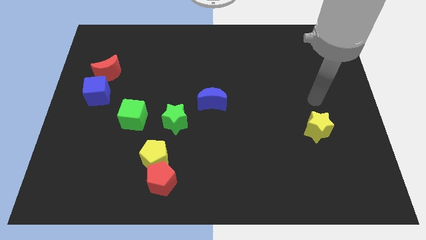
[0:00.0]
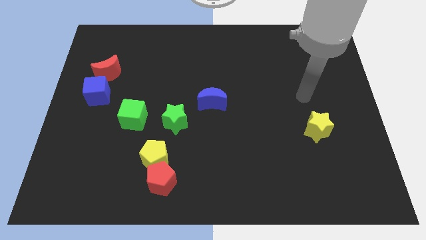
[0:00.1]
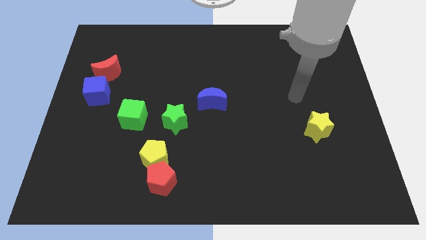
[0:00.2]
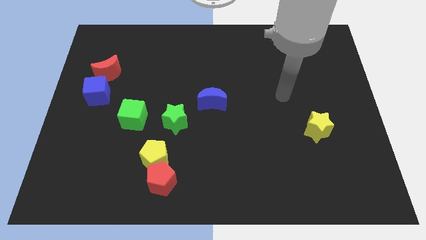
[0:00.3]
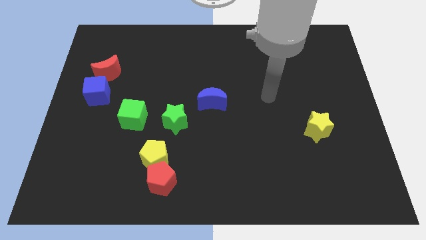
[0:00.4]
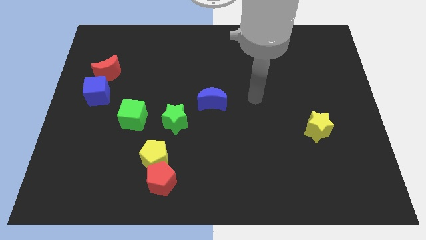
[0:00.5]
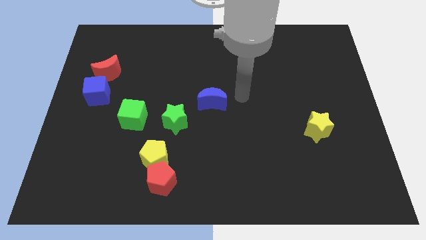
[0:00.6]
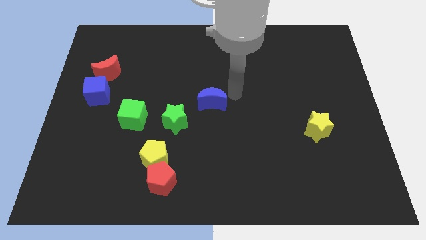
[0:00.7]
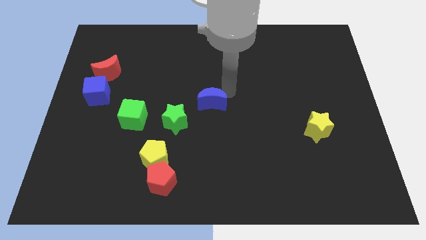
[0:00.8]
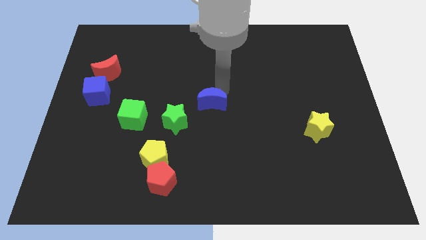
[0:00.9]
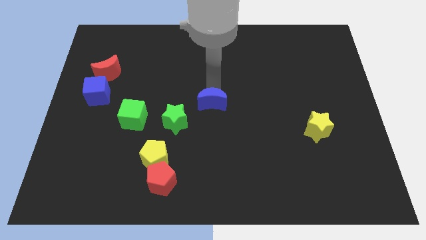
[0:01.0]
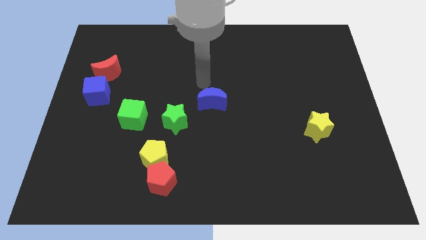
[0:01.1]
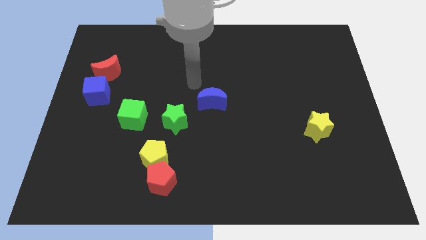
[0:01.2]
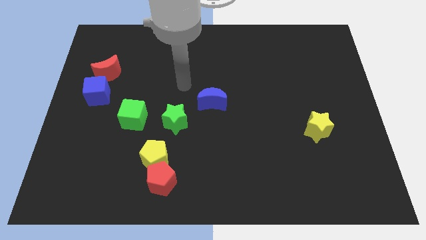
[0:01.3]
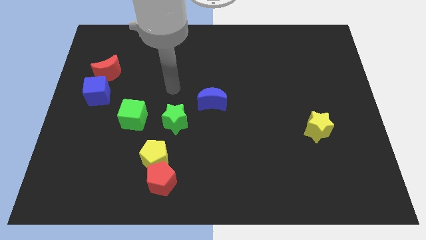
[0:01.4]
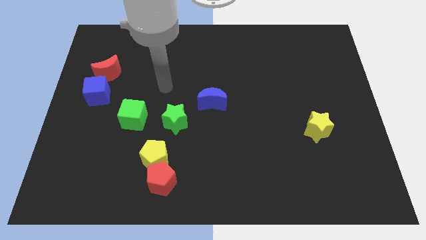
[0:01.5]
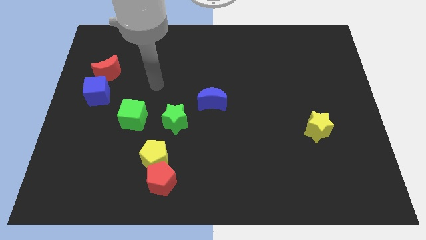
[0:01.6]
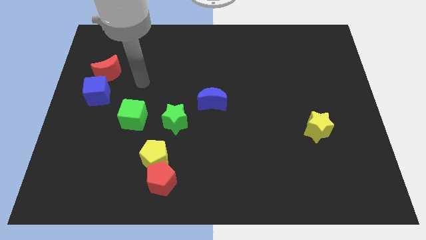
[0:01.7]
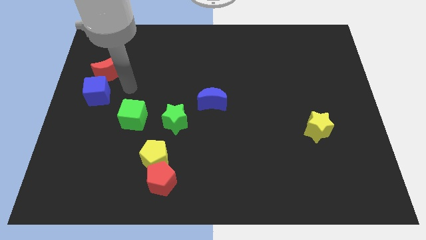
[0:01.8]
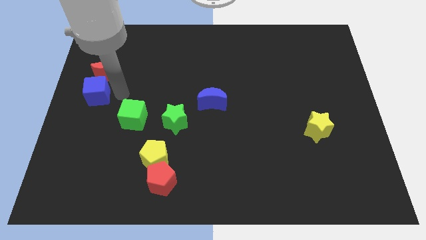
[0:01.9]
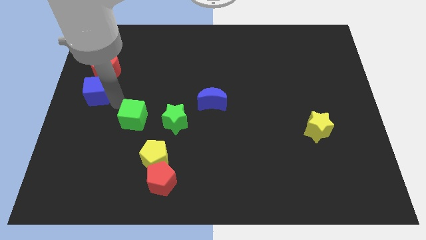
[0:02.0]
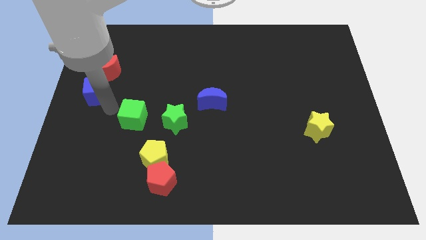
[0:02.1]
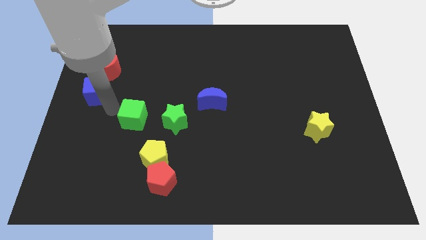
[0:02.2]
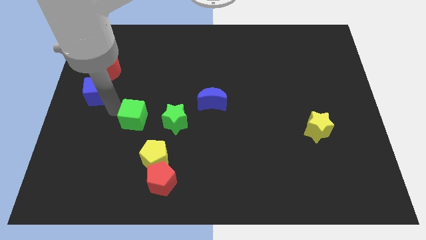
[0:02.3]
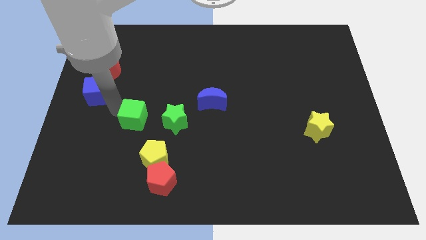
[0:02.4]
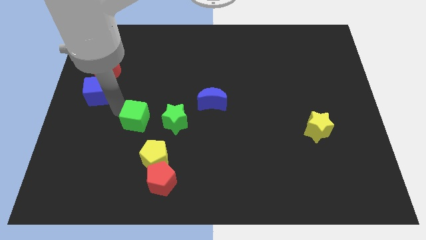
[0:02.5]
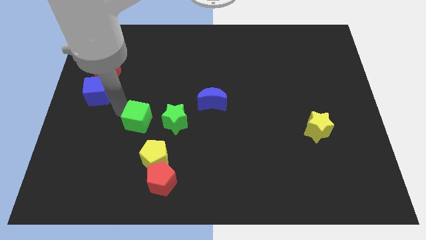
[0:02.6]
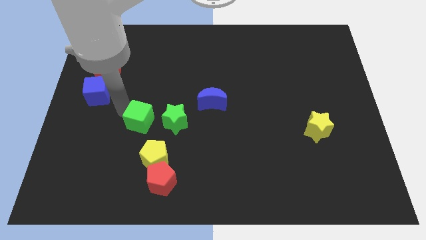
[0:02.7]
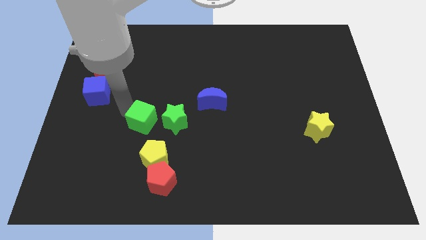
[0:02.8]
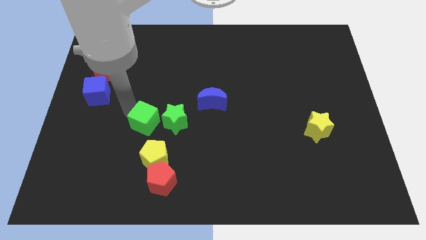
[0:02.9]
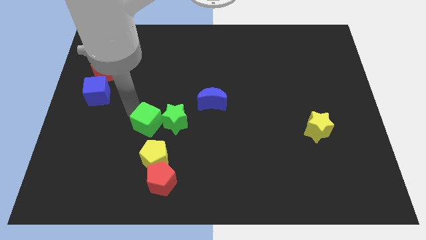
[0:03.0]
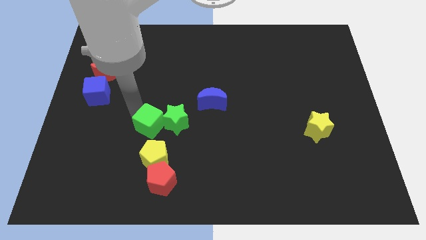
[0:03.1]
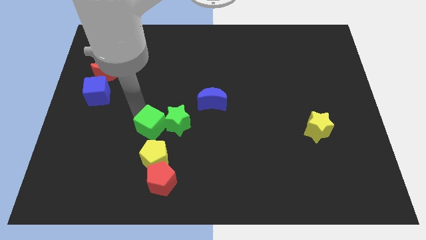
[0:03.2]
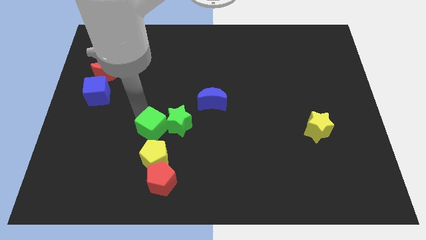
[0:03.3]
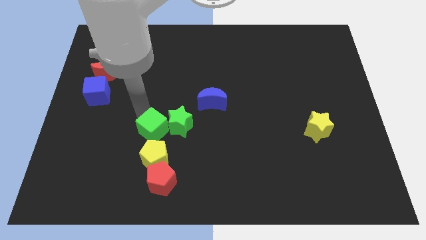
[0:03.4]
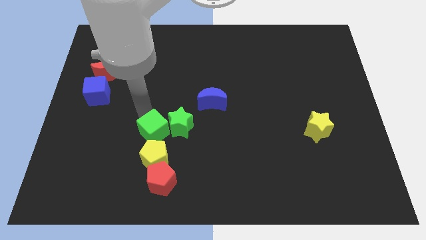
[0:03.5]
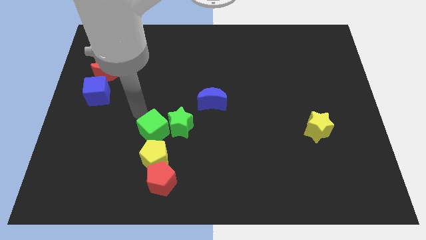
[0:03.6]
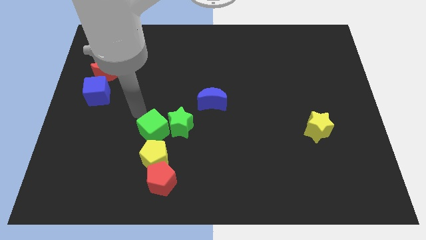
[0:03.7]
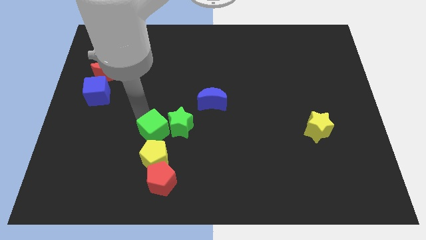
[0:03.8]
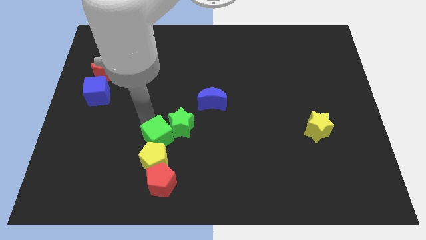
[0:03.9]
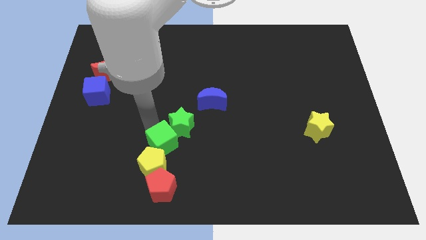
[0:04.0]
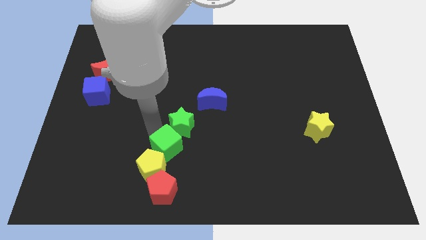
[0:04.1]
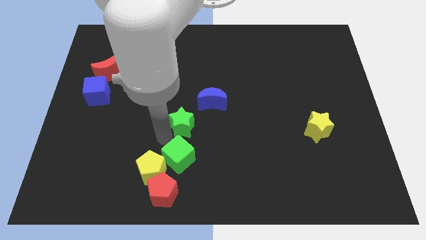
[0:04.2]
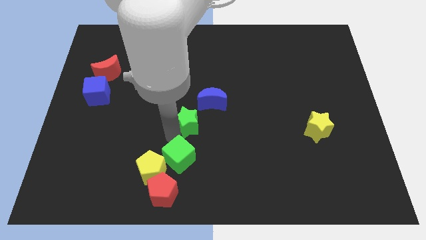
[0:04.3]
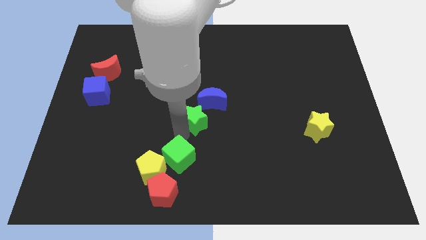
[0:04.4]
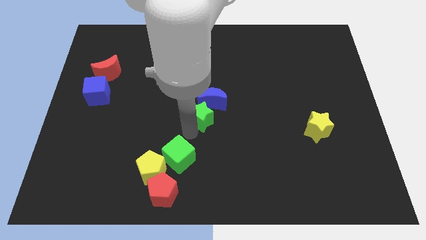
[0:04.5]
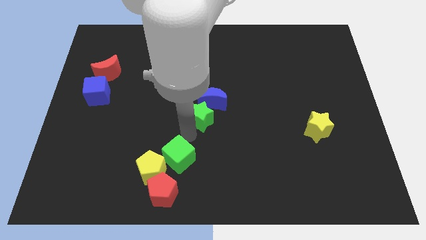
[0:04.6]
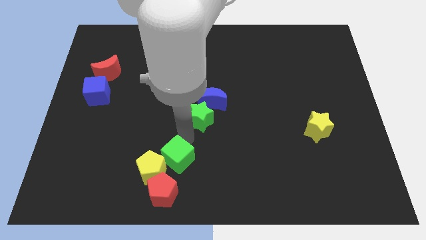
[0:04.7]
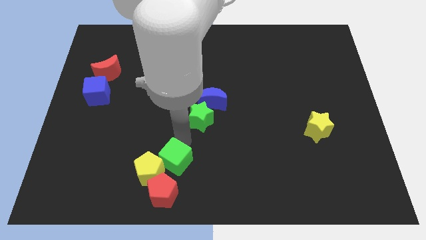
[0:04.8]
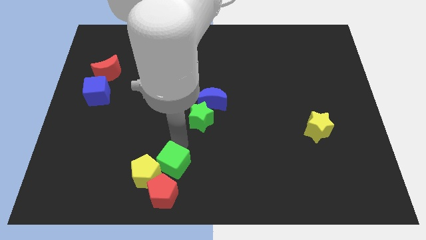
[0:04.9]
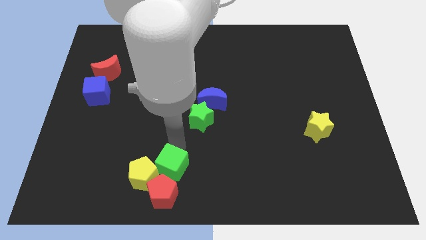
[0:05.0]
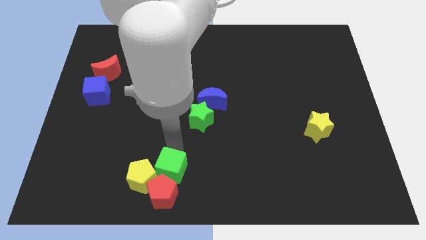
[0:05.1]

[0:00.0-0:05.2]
move the green cube close to the red pentagon

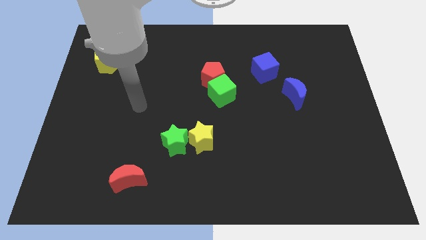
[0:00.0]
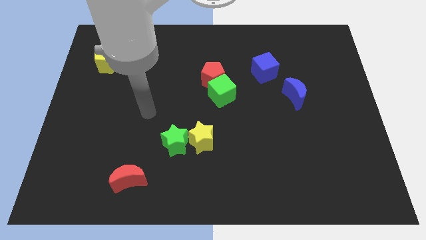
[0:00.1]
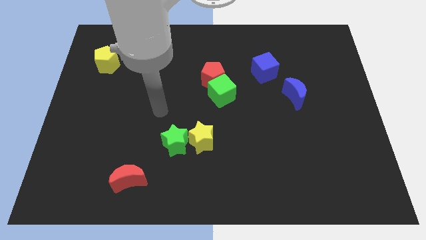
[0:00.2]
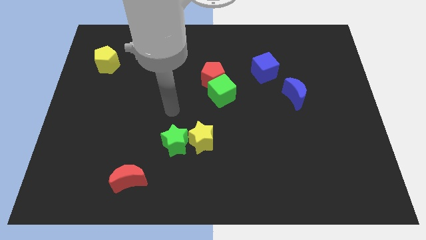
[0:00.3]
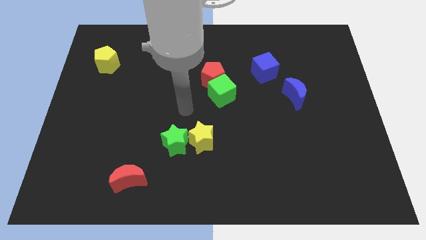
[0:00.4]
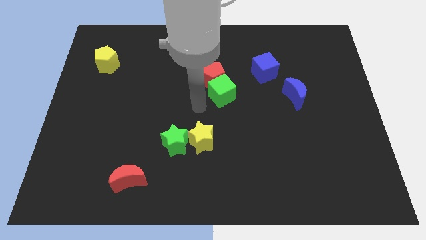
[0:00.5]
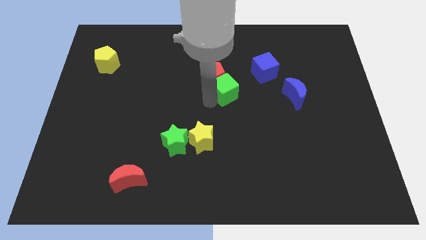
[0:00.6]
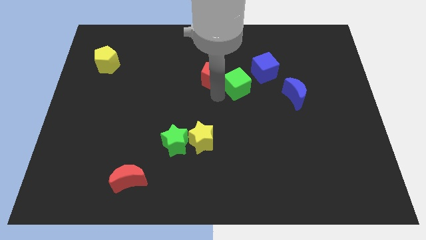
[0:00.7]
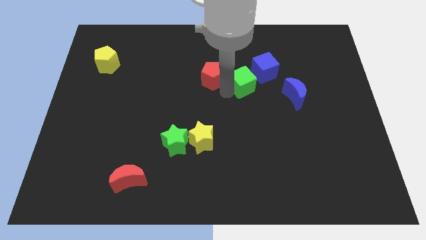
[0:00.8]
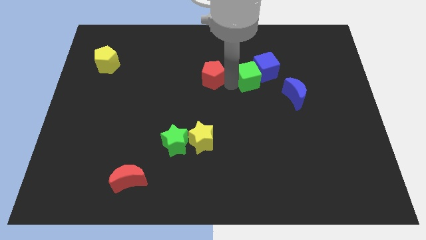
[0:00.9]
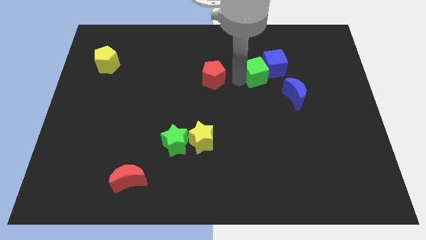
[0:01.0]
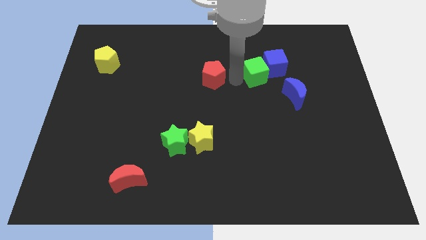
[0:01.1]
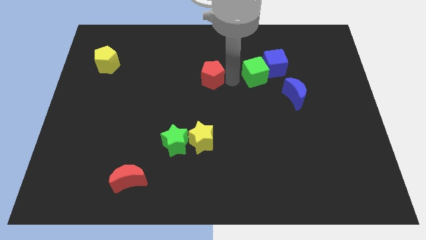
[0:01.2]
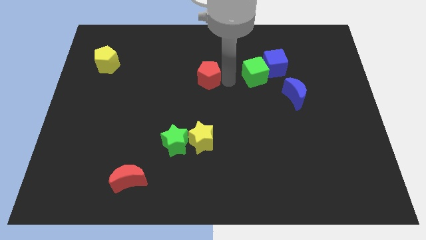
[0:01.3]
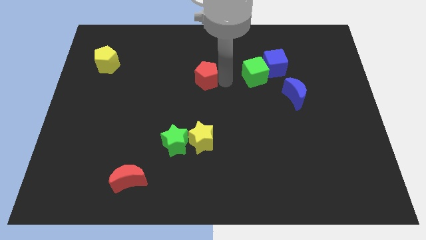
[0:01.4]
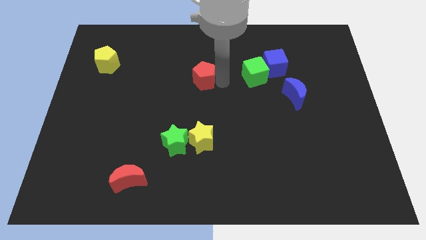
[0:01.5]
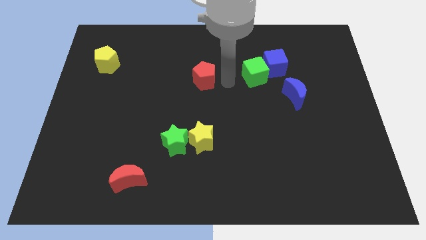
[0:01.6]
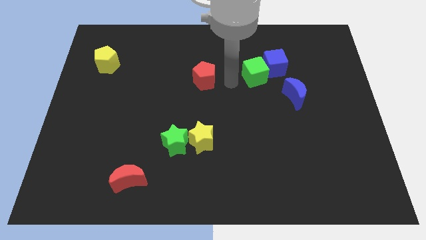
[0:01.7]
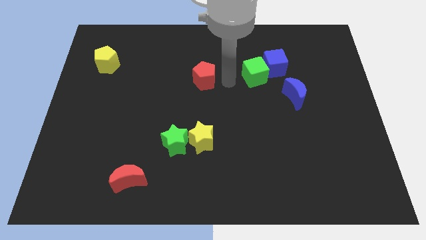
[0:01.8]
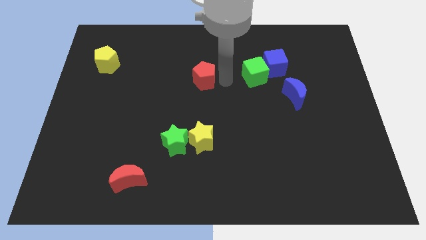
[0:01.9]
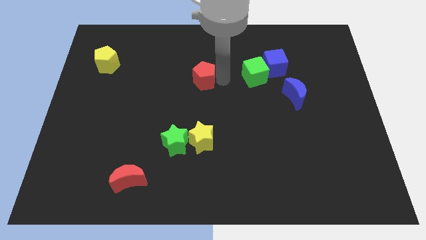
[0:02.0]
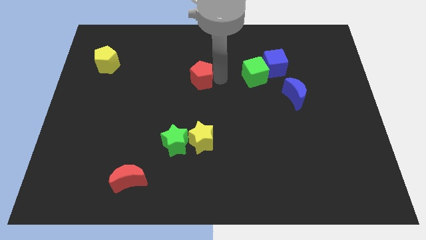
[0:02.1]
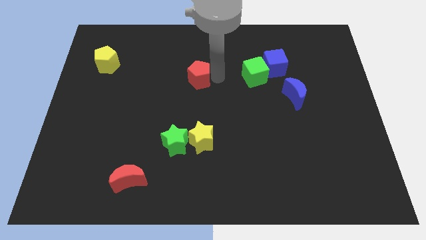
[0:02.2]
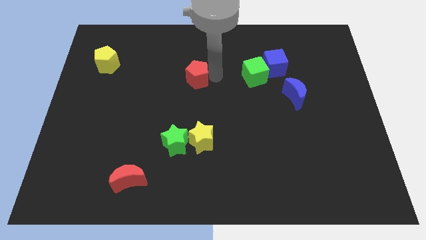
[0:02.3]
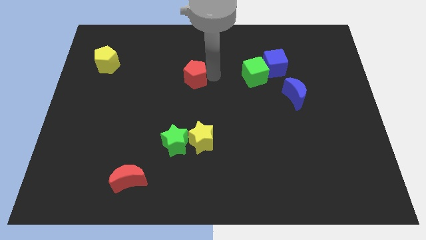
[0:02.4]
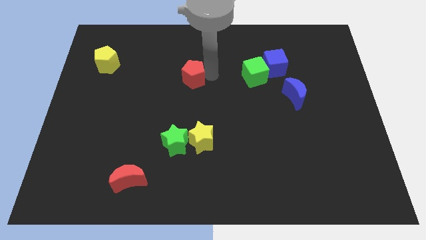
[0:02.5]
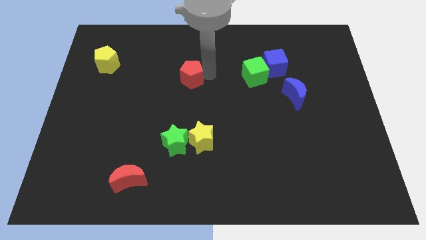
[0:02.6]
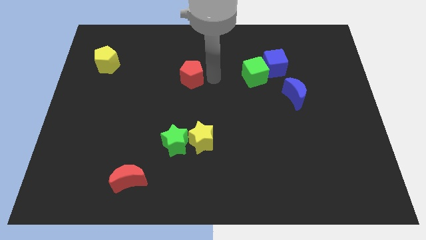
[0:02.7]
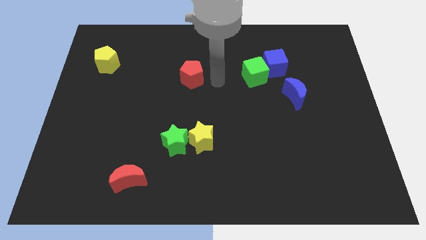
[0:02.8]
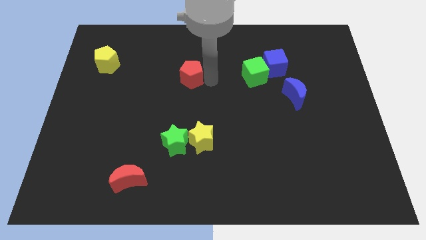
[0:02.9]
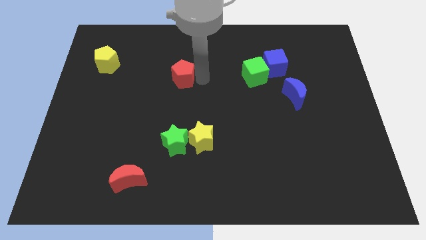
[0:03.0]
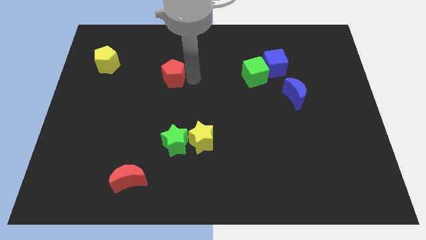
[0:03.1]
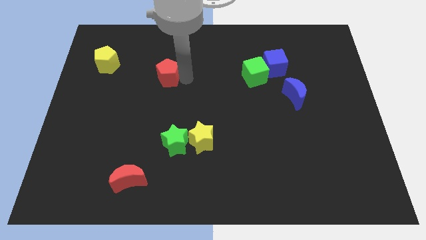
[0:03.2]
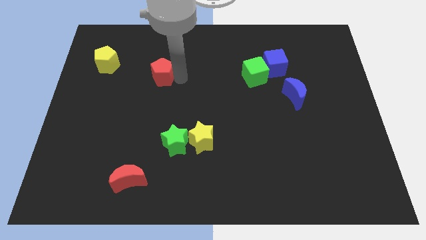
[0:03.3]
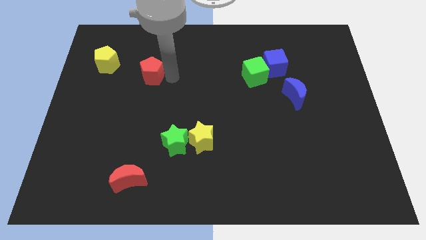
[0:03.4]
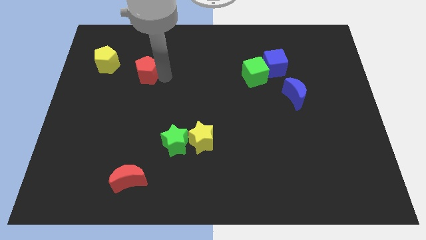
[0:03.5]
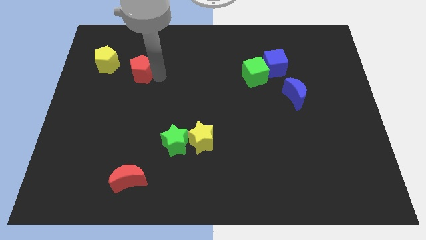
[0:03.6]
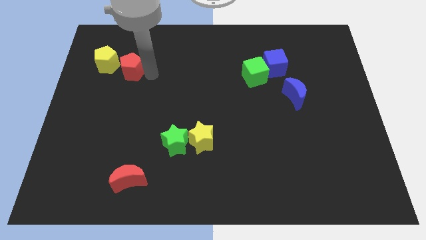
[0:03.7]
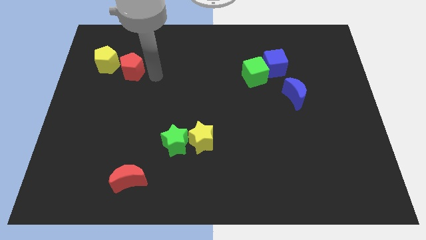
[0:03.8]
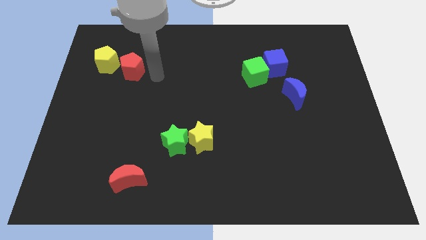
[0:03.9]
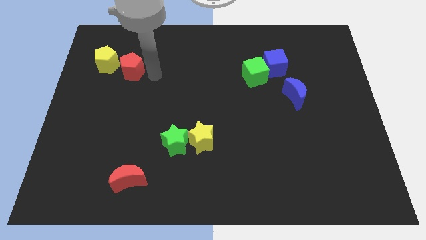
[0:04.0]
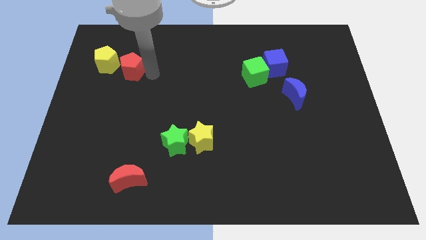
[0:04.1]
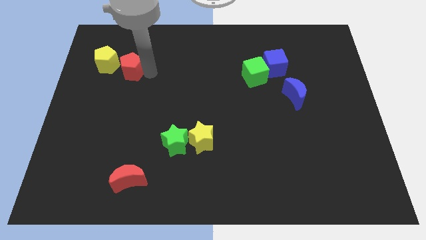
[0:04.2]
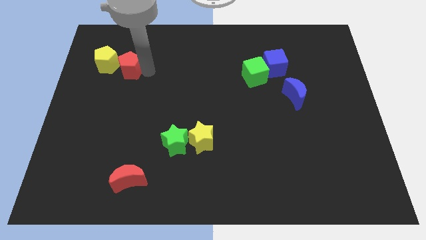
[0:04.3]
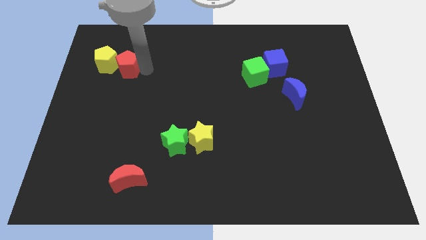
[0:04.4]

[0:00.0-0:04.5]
slide the red pentagon towards the yellow pentagon
